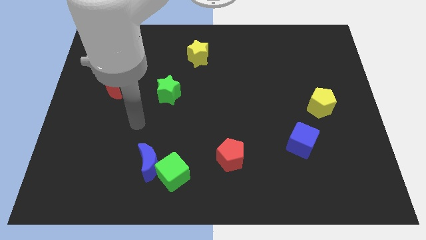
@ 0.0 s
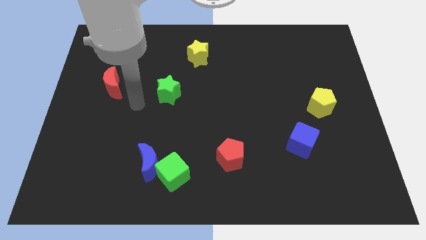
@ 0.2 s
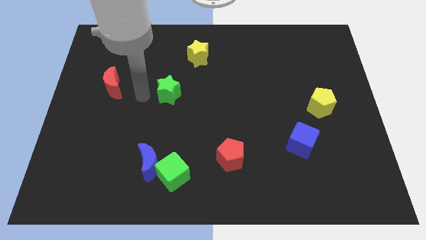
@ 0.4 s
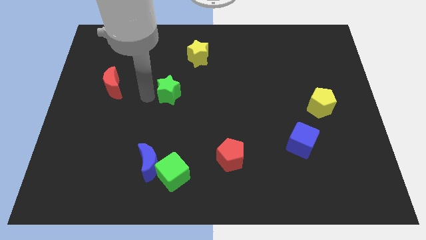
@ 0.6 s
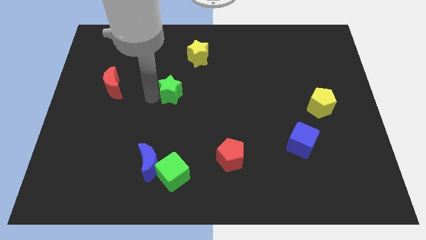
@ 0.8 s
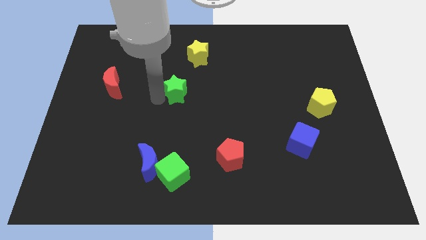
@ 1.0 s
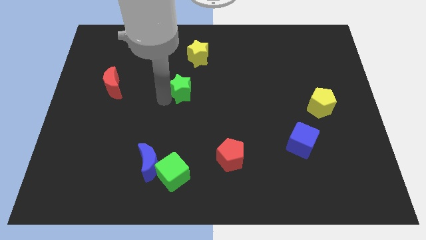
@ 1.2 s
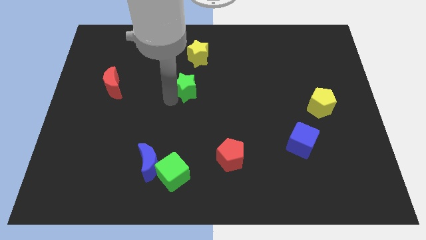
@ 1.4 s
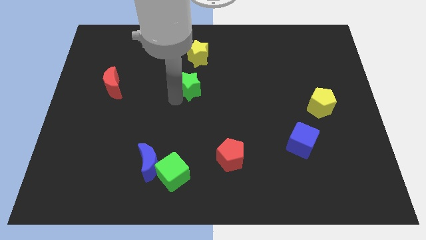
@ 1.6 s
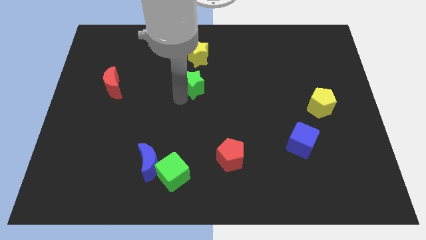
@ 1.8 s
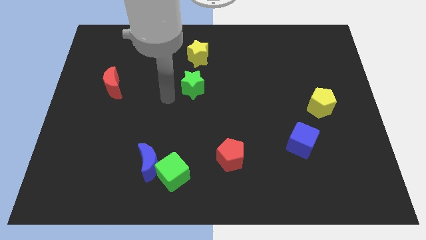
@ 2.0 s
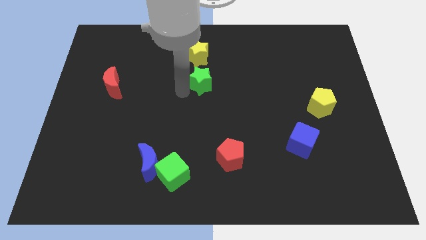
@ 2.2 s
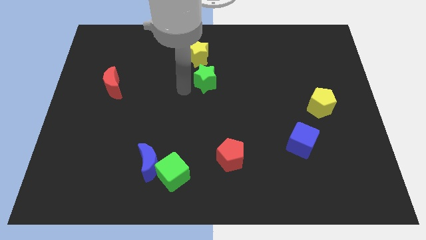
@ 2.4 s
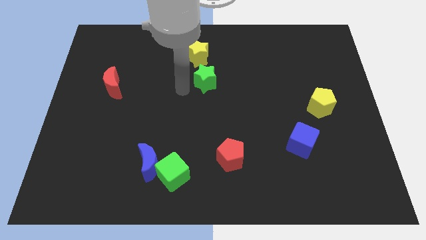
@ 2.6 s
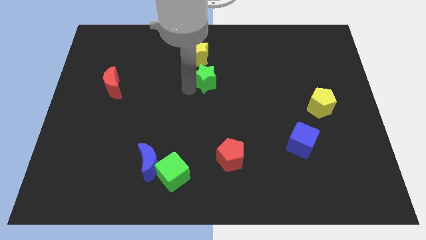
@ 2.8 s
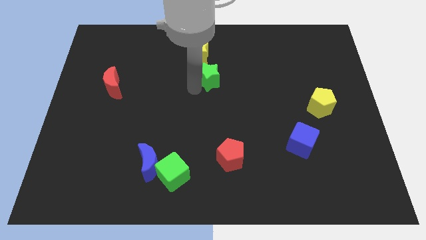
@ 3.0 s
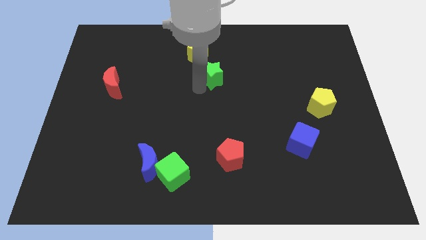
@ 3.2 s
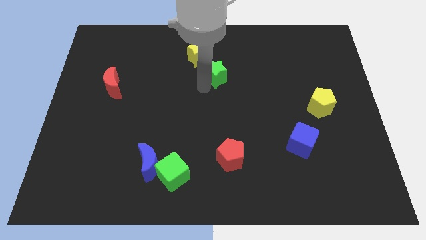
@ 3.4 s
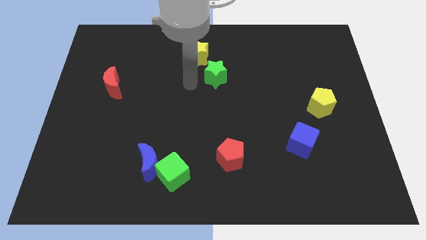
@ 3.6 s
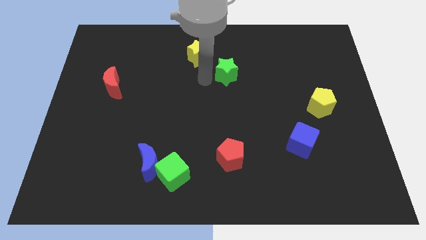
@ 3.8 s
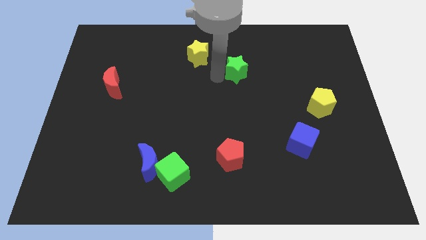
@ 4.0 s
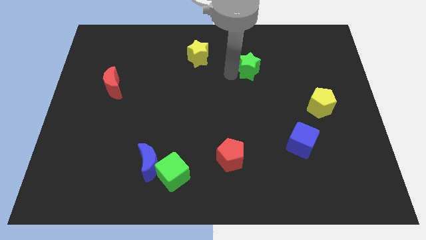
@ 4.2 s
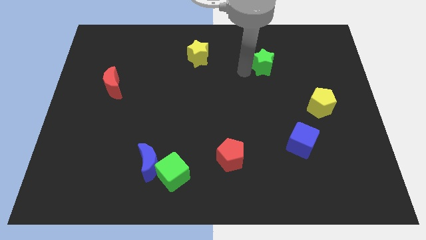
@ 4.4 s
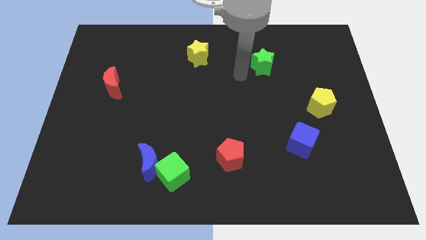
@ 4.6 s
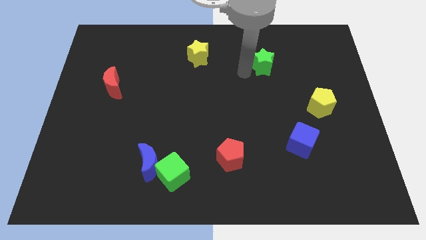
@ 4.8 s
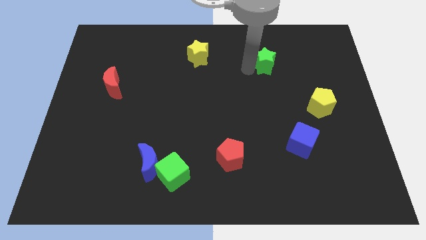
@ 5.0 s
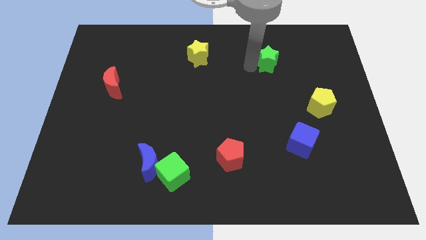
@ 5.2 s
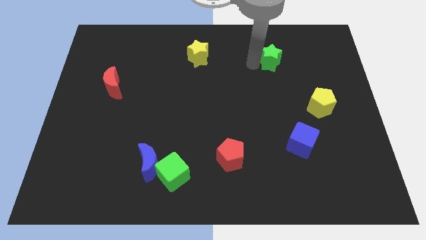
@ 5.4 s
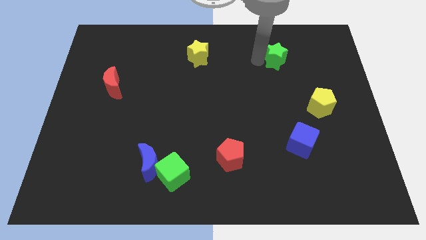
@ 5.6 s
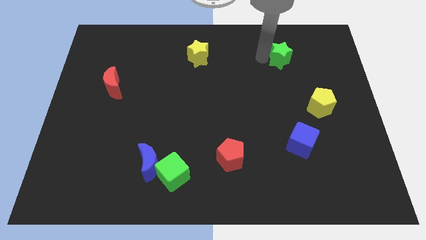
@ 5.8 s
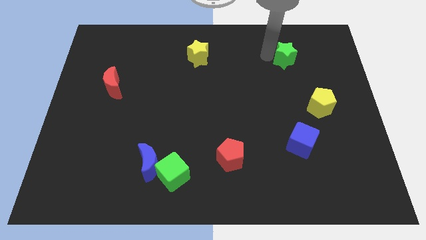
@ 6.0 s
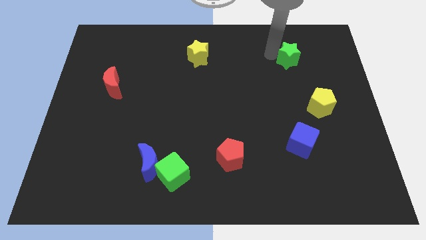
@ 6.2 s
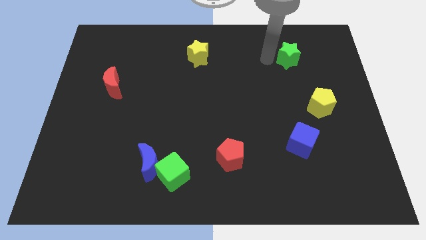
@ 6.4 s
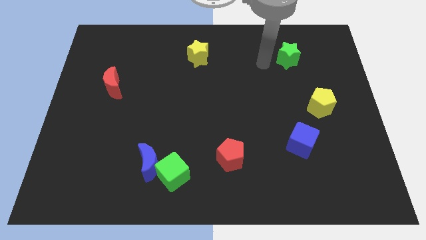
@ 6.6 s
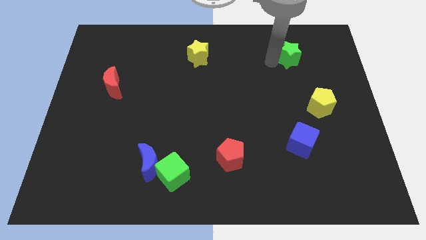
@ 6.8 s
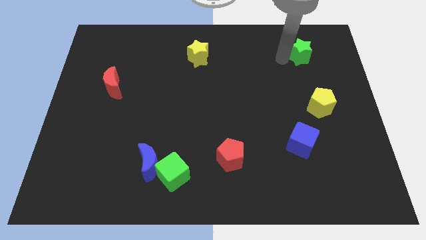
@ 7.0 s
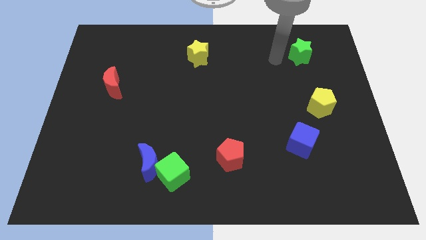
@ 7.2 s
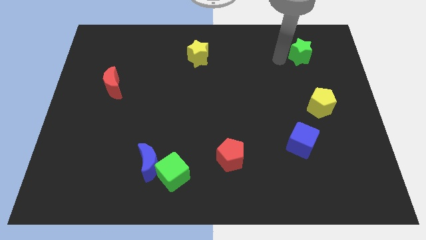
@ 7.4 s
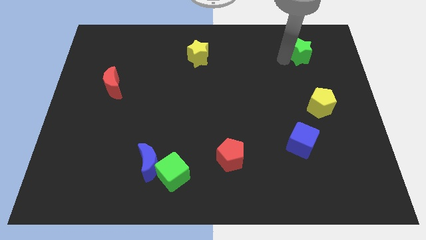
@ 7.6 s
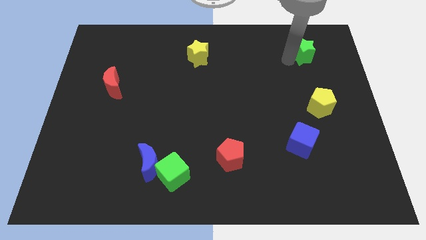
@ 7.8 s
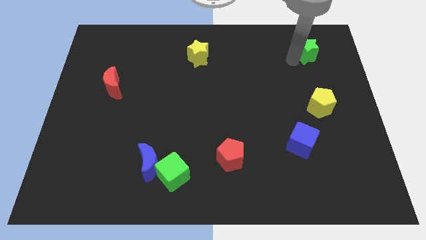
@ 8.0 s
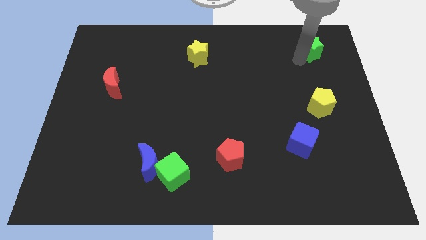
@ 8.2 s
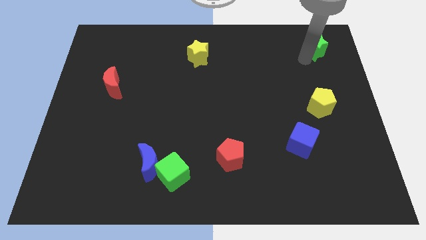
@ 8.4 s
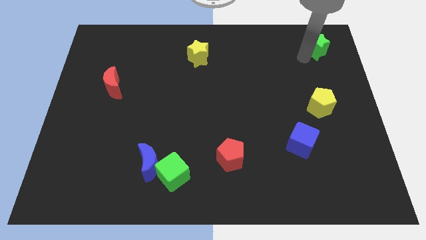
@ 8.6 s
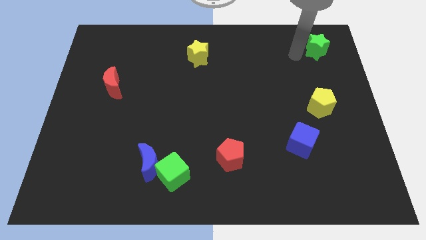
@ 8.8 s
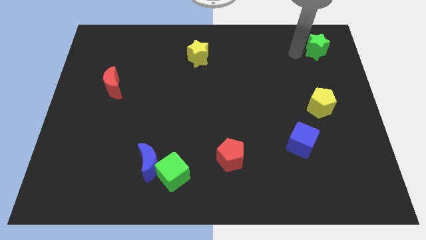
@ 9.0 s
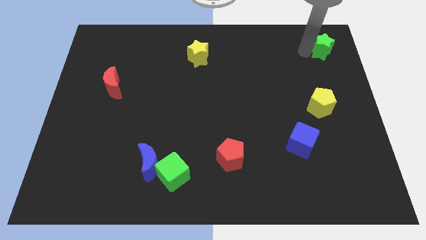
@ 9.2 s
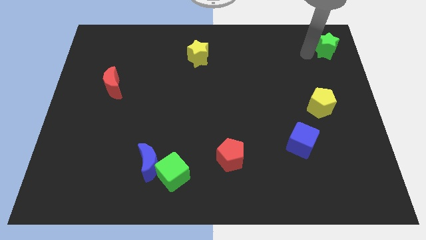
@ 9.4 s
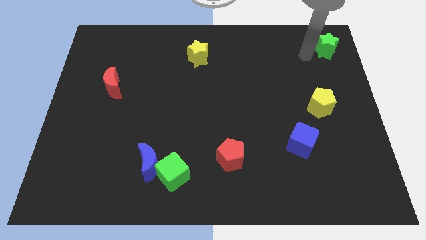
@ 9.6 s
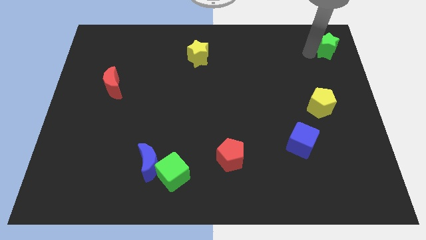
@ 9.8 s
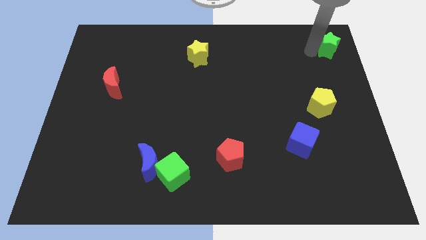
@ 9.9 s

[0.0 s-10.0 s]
push the green star to the top right corner

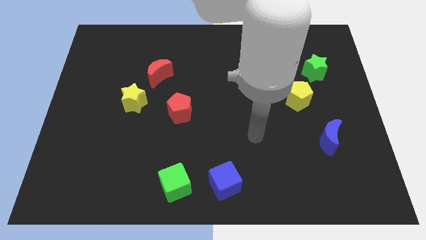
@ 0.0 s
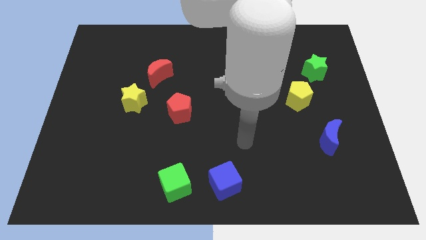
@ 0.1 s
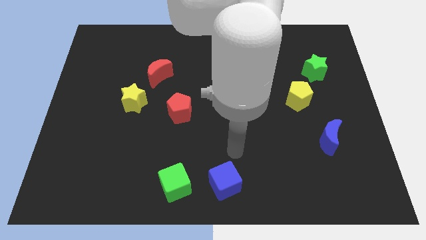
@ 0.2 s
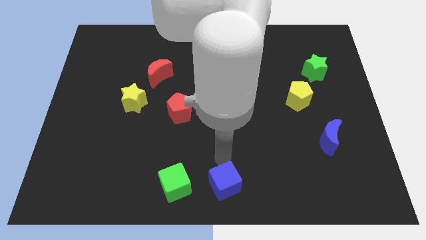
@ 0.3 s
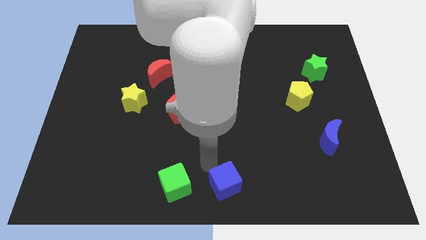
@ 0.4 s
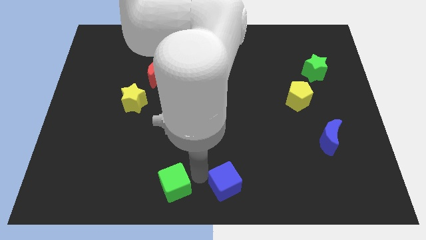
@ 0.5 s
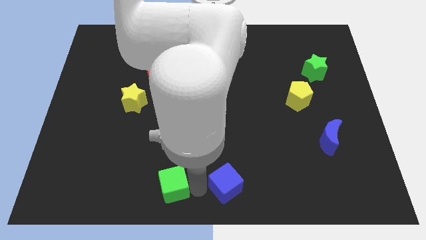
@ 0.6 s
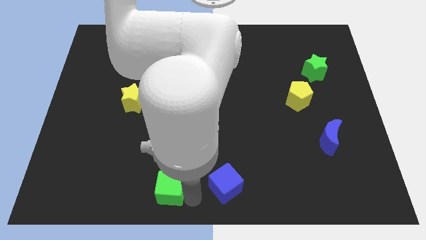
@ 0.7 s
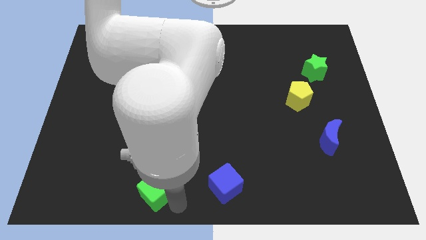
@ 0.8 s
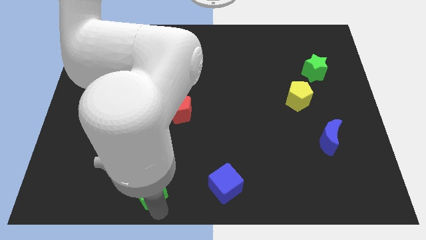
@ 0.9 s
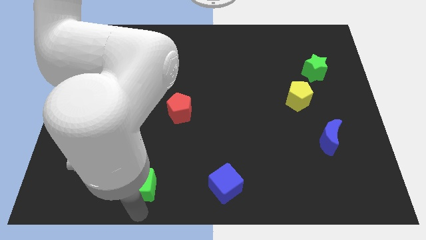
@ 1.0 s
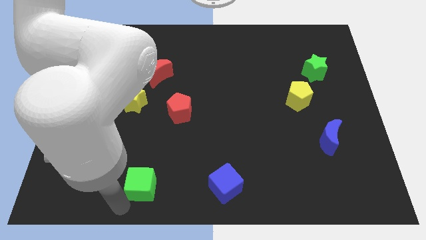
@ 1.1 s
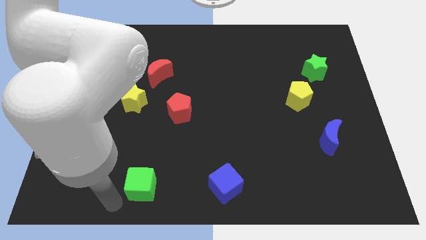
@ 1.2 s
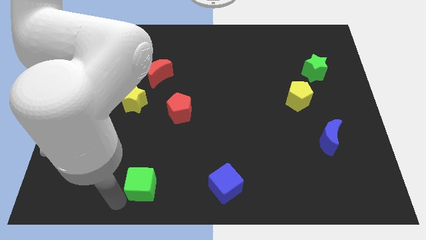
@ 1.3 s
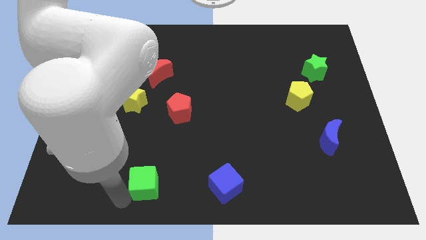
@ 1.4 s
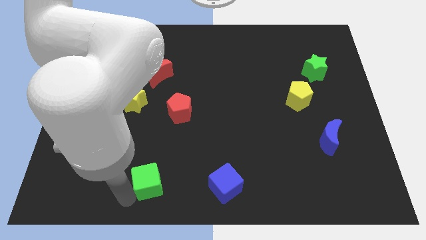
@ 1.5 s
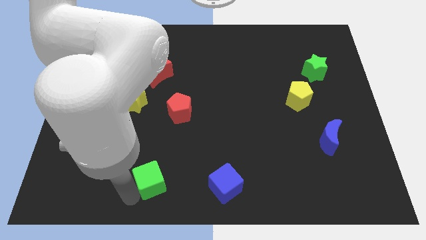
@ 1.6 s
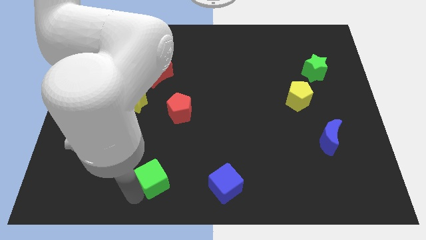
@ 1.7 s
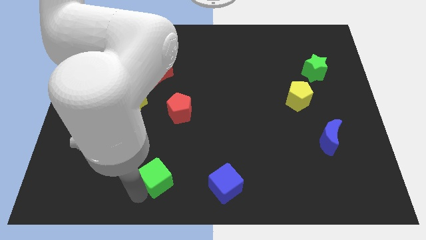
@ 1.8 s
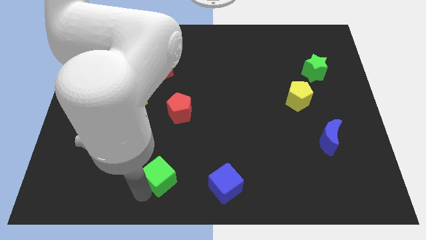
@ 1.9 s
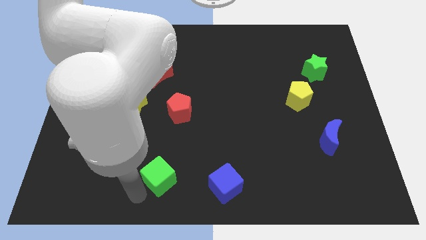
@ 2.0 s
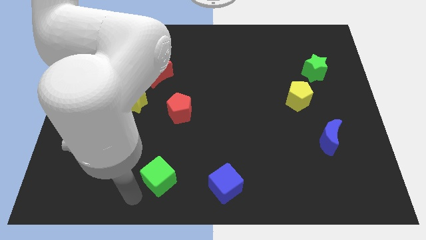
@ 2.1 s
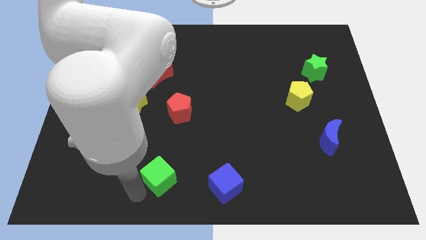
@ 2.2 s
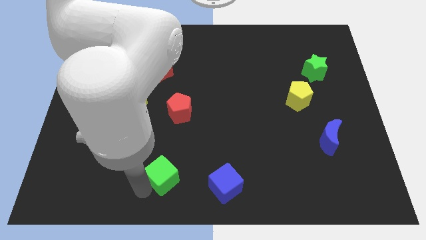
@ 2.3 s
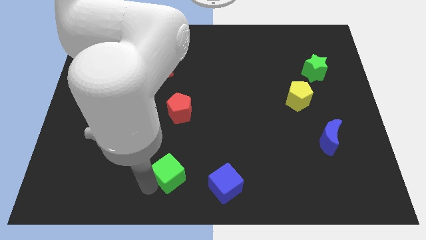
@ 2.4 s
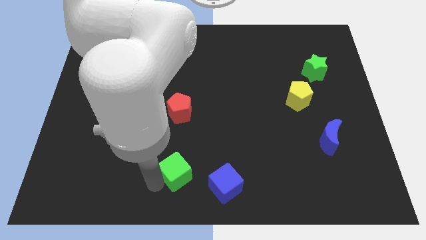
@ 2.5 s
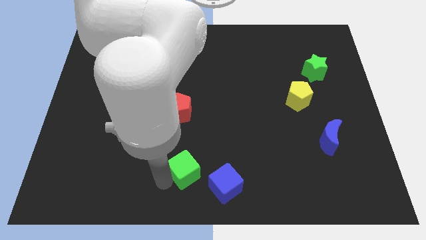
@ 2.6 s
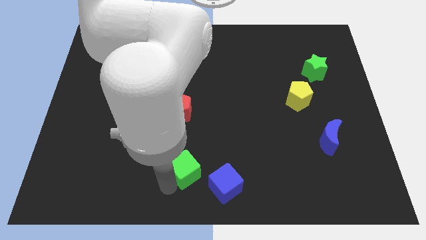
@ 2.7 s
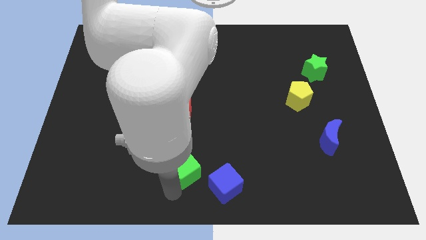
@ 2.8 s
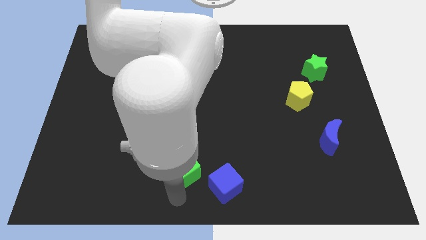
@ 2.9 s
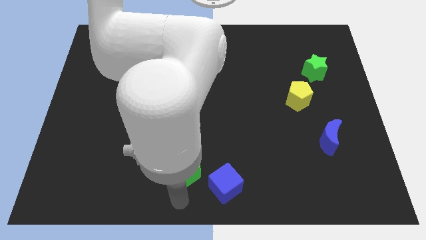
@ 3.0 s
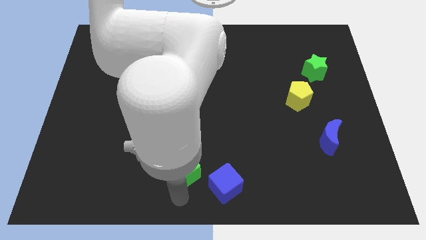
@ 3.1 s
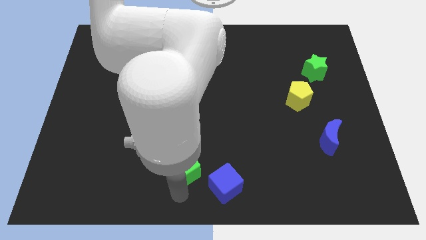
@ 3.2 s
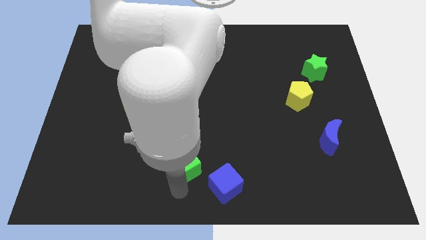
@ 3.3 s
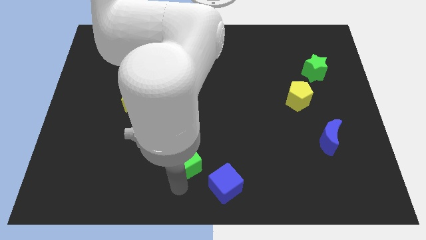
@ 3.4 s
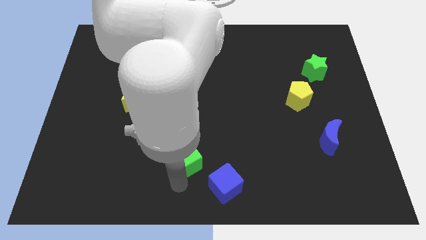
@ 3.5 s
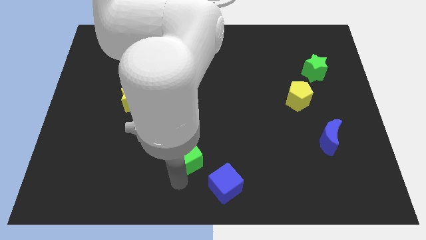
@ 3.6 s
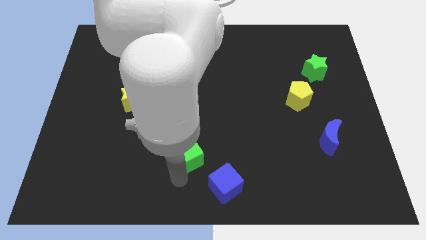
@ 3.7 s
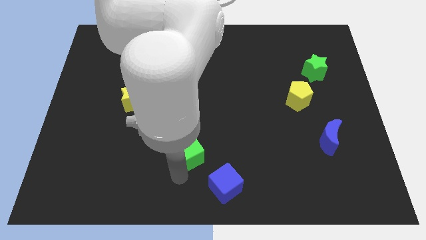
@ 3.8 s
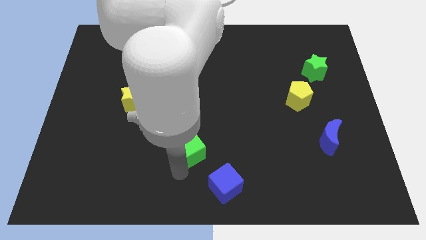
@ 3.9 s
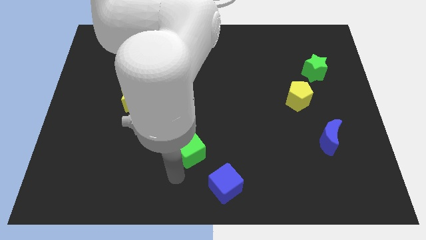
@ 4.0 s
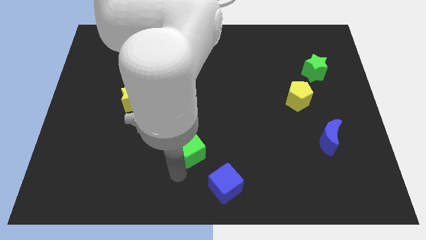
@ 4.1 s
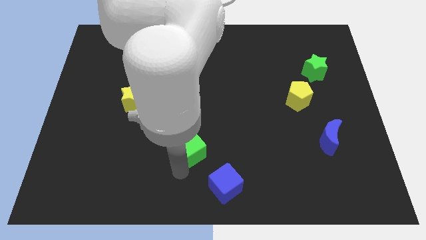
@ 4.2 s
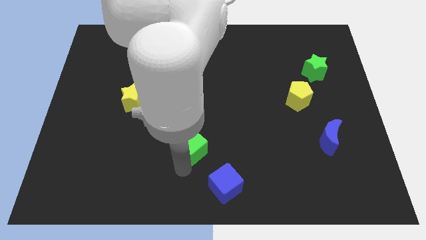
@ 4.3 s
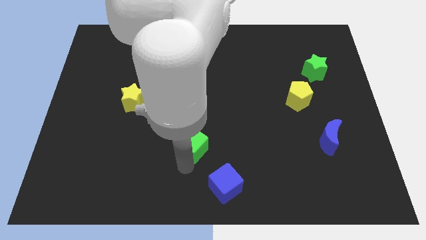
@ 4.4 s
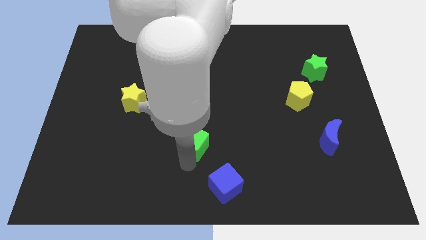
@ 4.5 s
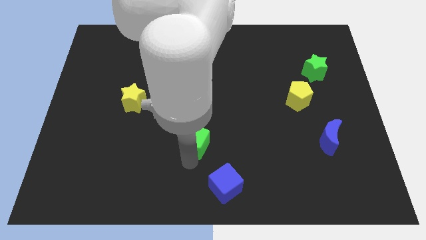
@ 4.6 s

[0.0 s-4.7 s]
put the green cube to the middle
